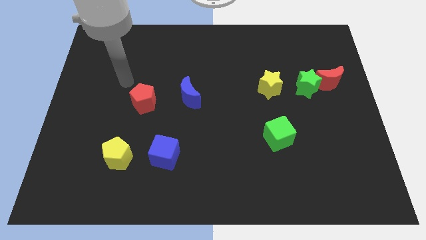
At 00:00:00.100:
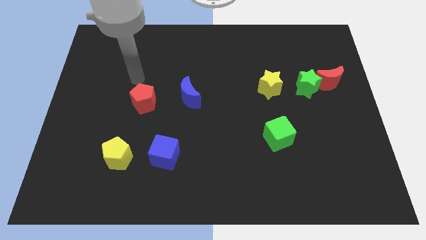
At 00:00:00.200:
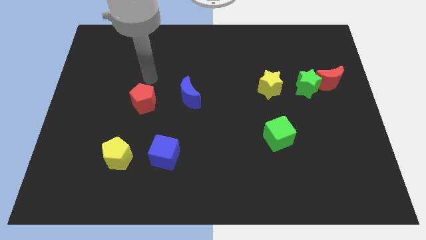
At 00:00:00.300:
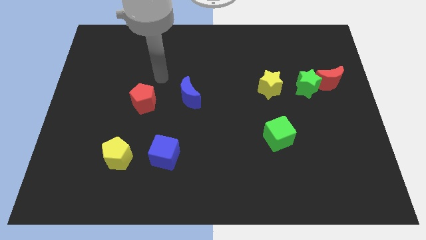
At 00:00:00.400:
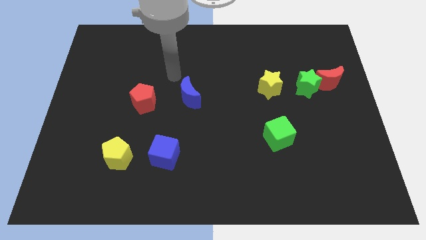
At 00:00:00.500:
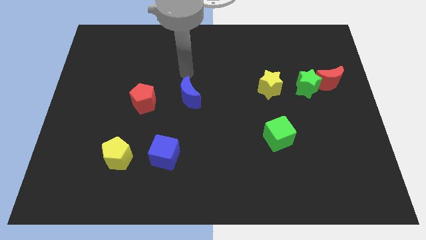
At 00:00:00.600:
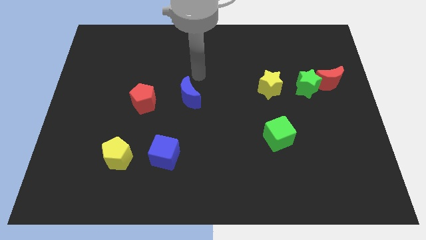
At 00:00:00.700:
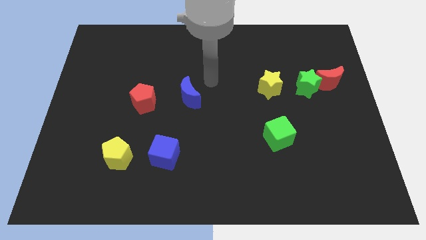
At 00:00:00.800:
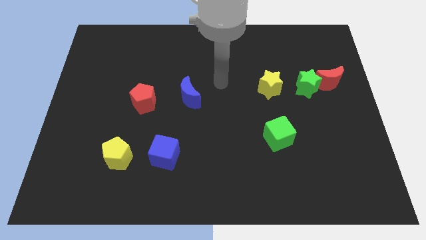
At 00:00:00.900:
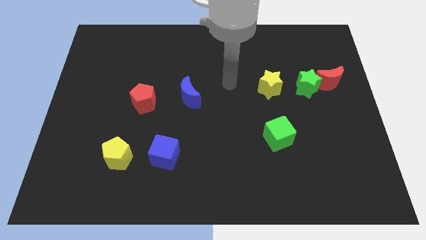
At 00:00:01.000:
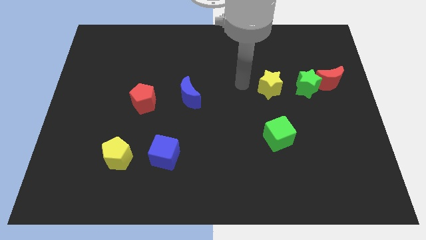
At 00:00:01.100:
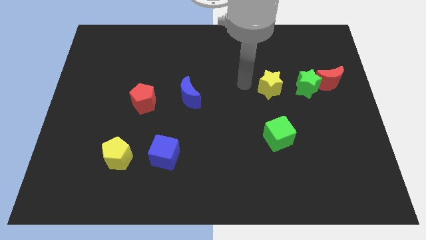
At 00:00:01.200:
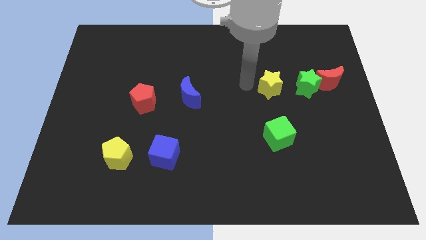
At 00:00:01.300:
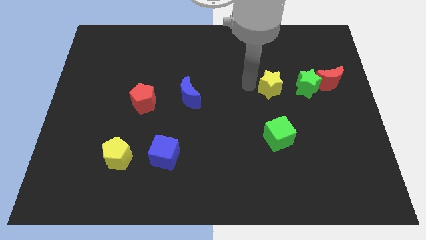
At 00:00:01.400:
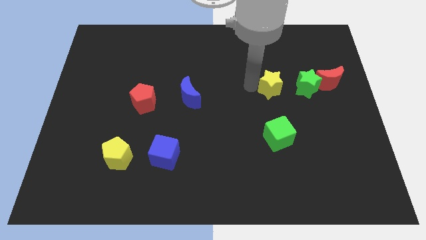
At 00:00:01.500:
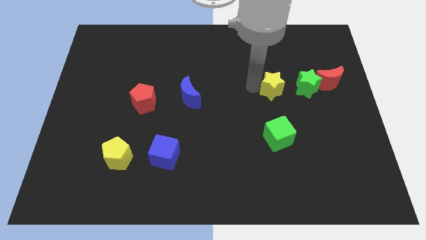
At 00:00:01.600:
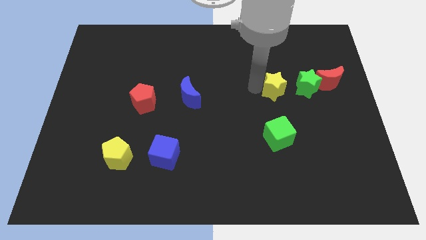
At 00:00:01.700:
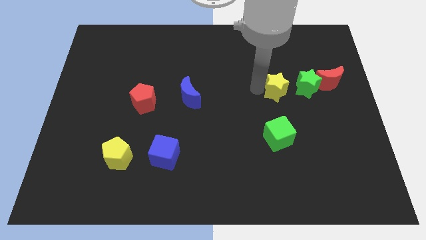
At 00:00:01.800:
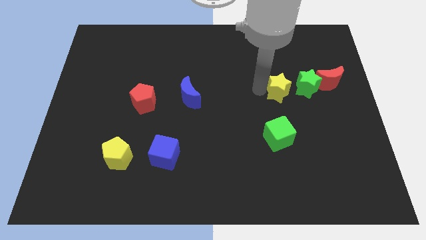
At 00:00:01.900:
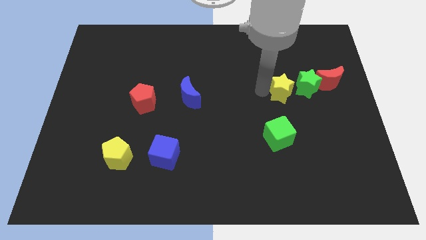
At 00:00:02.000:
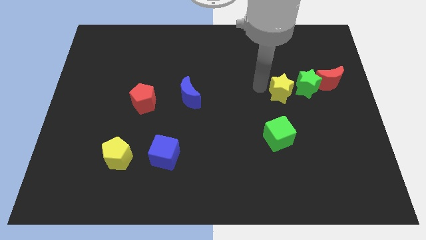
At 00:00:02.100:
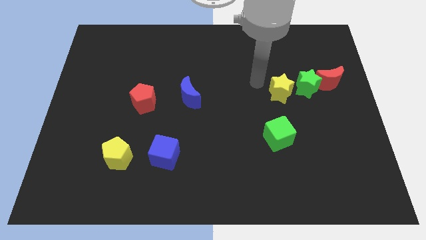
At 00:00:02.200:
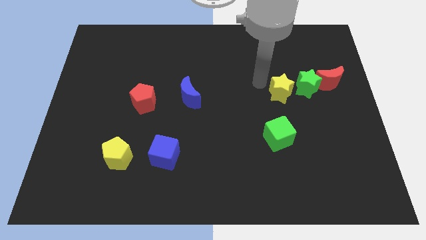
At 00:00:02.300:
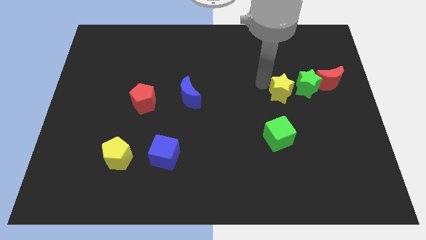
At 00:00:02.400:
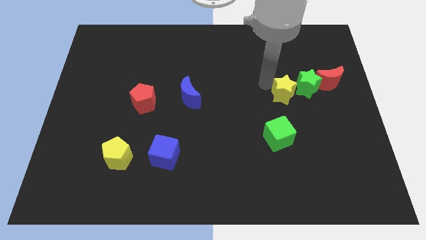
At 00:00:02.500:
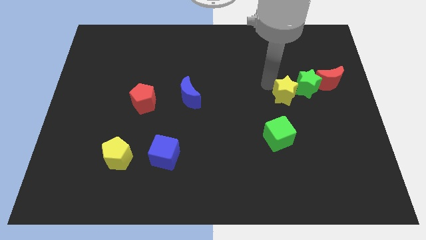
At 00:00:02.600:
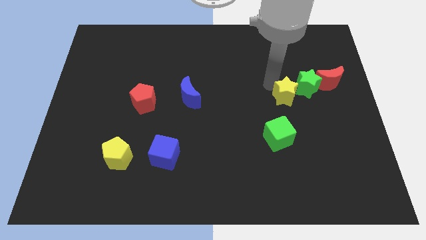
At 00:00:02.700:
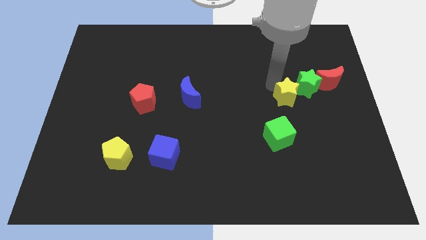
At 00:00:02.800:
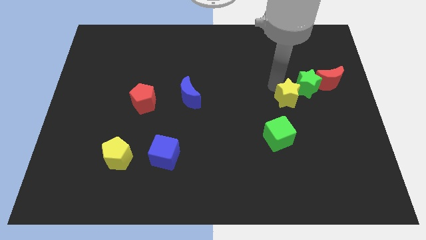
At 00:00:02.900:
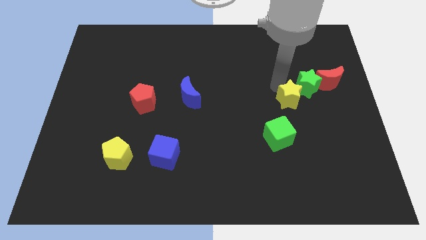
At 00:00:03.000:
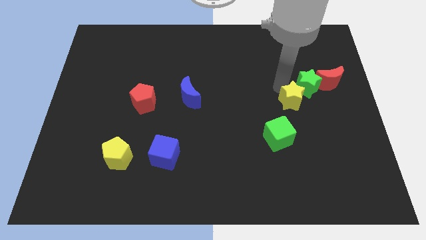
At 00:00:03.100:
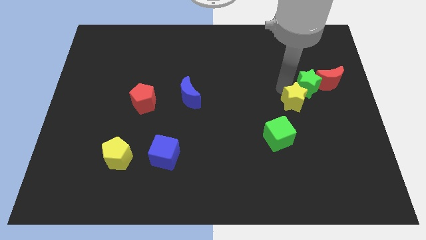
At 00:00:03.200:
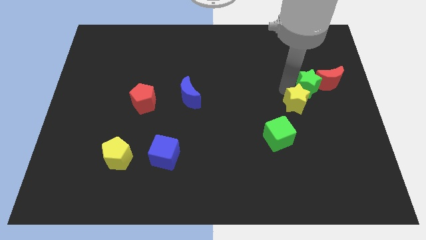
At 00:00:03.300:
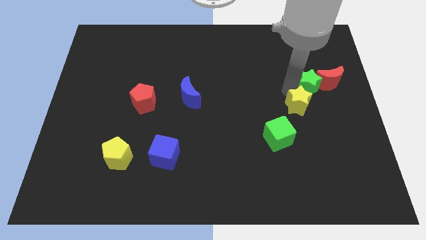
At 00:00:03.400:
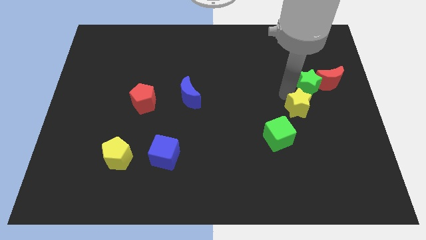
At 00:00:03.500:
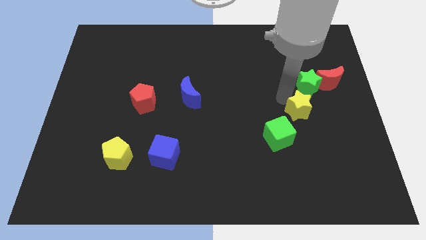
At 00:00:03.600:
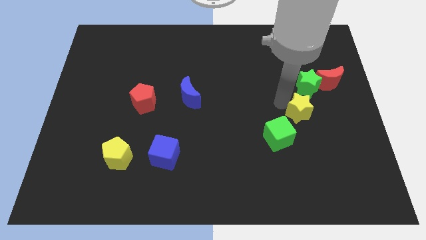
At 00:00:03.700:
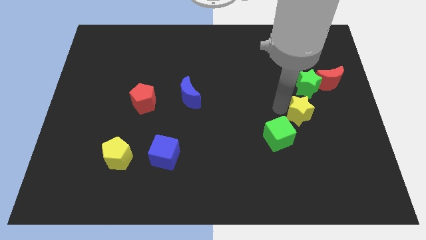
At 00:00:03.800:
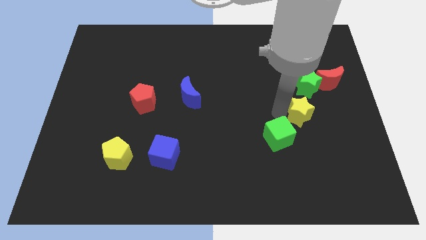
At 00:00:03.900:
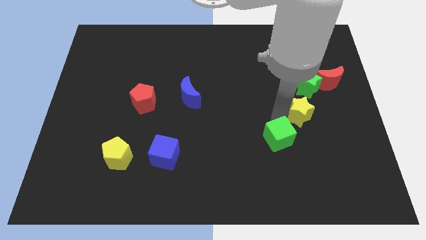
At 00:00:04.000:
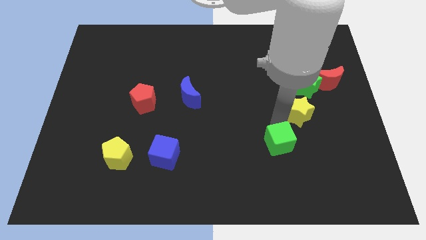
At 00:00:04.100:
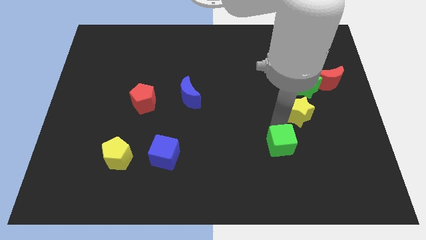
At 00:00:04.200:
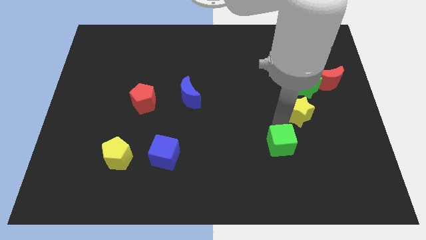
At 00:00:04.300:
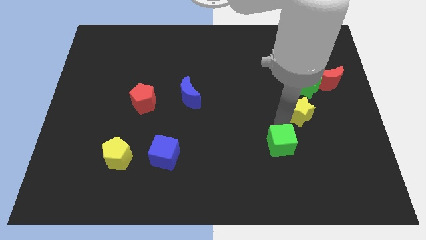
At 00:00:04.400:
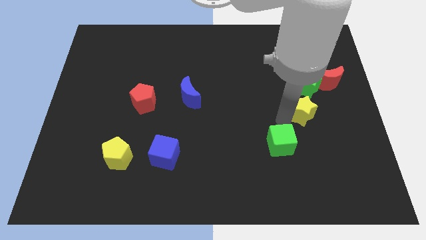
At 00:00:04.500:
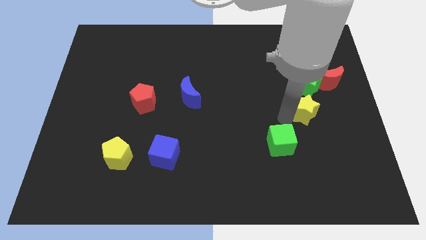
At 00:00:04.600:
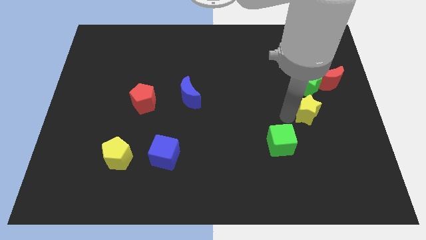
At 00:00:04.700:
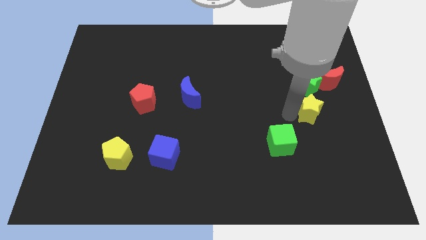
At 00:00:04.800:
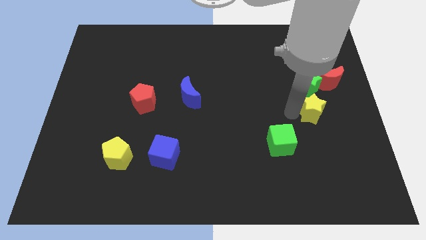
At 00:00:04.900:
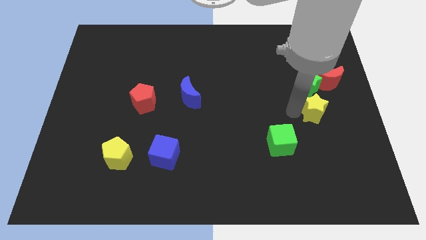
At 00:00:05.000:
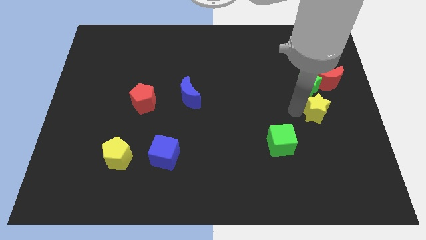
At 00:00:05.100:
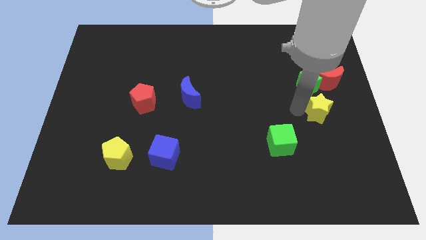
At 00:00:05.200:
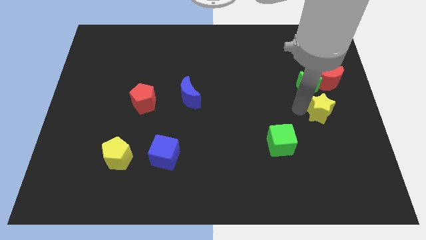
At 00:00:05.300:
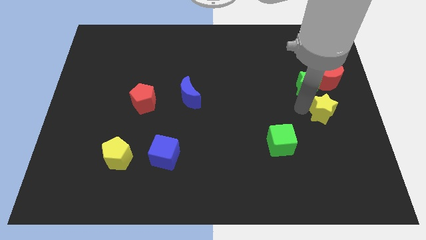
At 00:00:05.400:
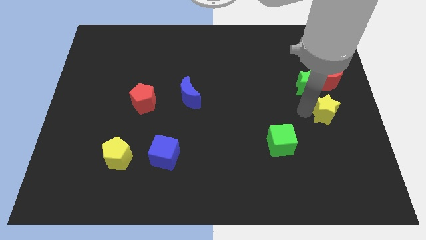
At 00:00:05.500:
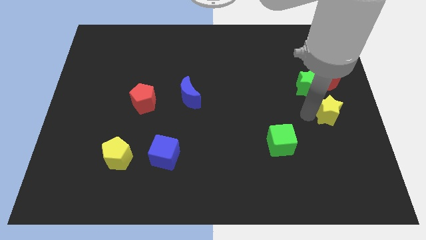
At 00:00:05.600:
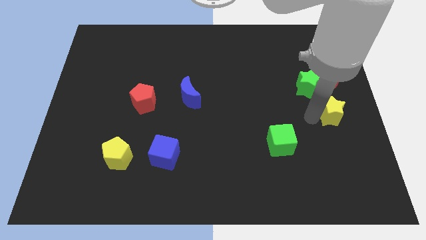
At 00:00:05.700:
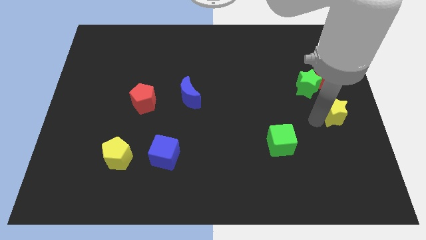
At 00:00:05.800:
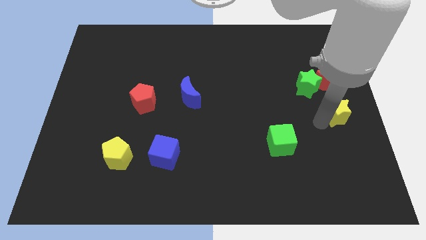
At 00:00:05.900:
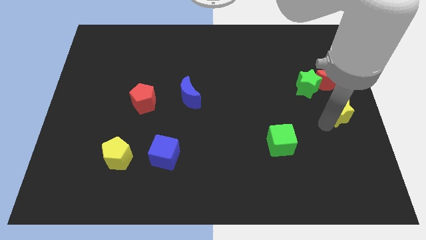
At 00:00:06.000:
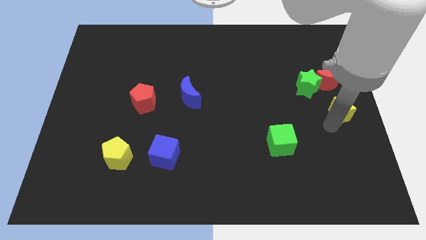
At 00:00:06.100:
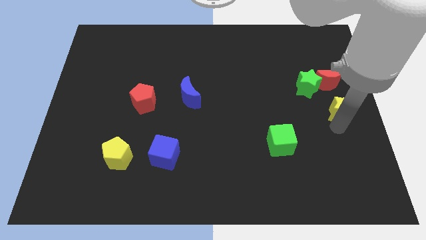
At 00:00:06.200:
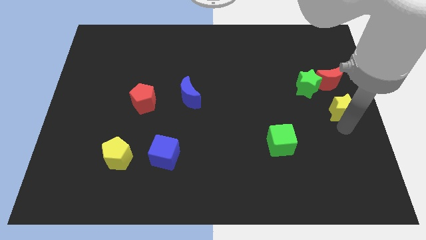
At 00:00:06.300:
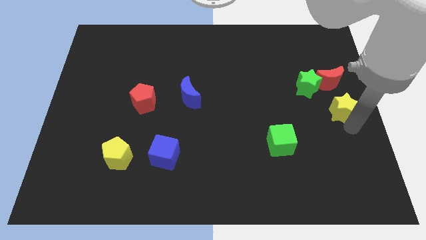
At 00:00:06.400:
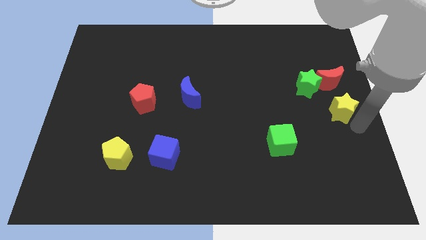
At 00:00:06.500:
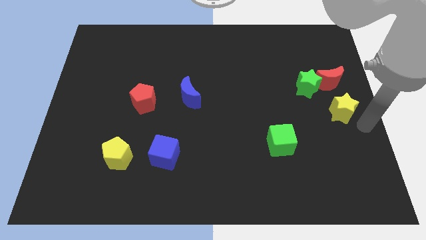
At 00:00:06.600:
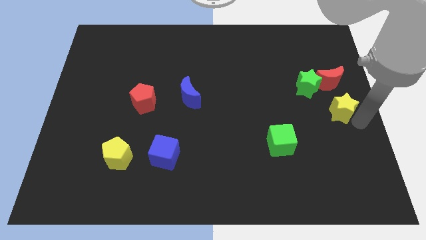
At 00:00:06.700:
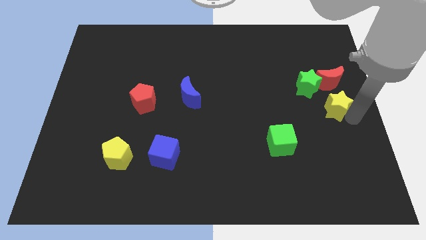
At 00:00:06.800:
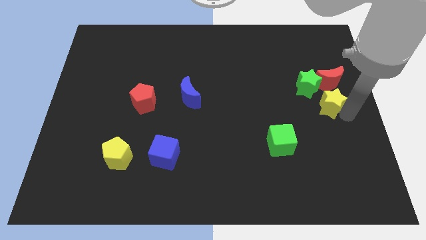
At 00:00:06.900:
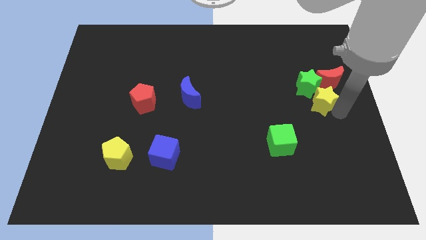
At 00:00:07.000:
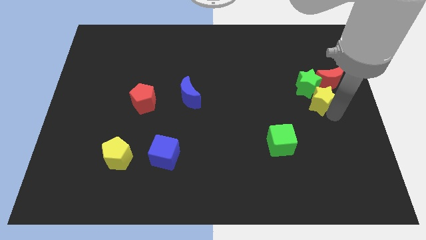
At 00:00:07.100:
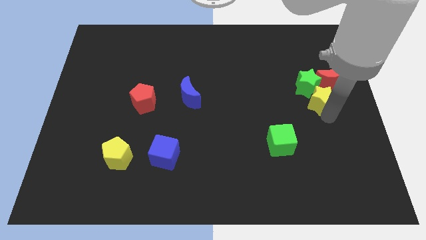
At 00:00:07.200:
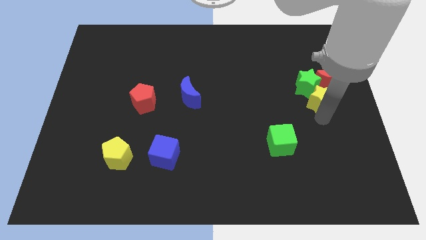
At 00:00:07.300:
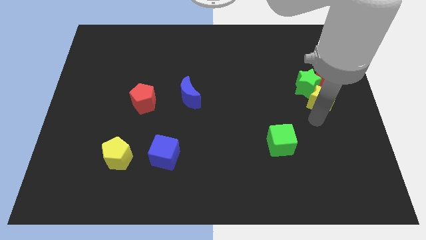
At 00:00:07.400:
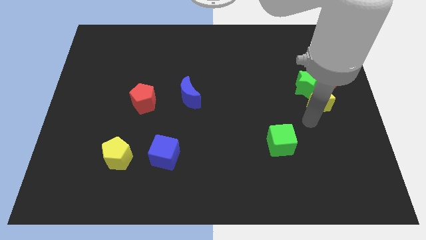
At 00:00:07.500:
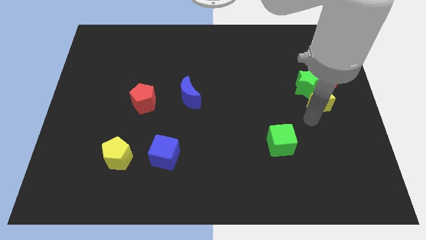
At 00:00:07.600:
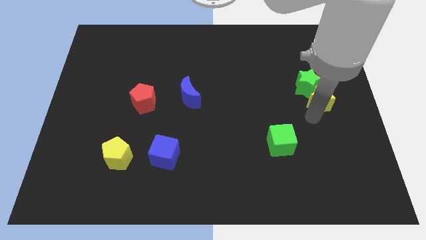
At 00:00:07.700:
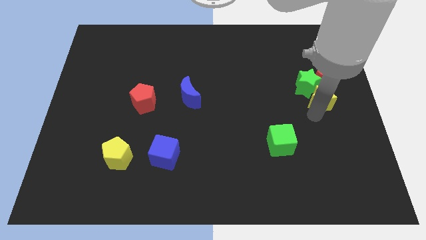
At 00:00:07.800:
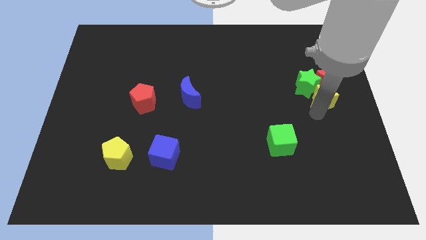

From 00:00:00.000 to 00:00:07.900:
put the yellow star next to the red moon
